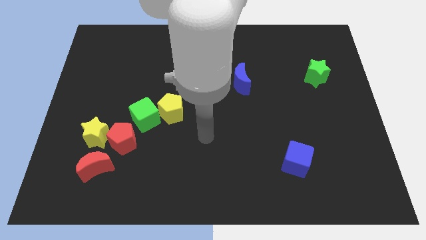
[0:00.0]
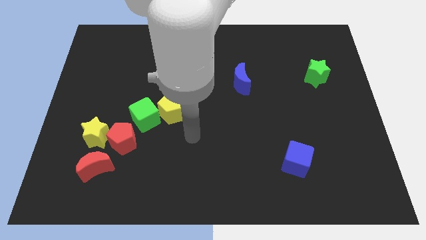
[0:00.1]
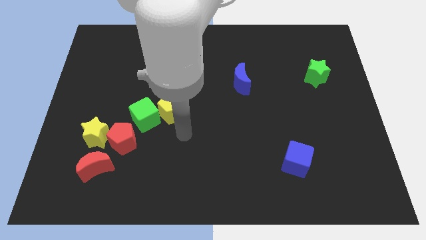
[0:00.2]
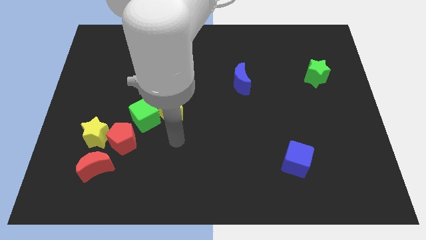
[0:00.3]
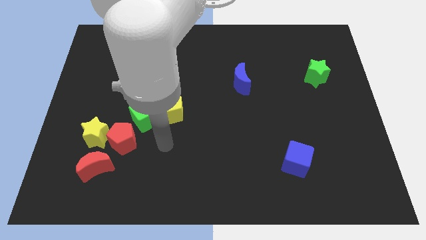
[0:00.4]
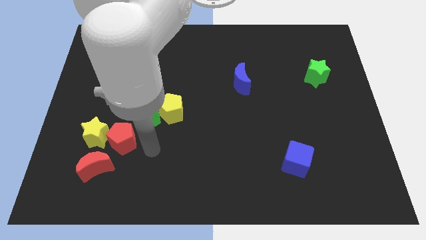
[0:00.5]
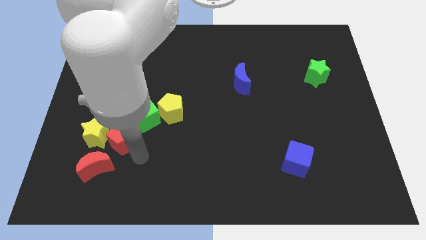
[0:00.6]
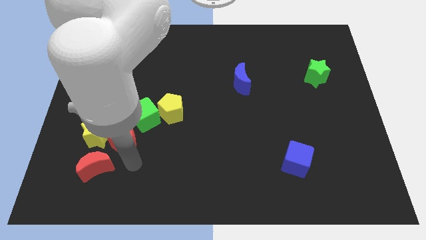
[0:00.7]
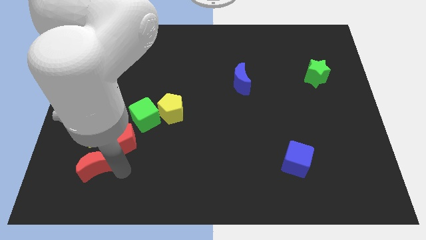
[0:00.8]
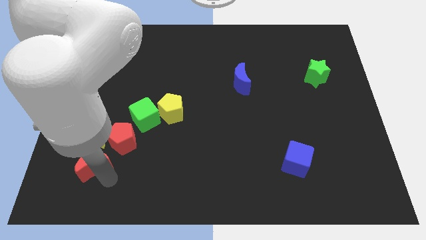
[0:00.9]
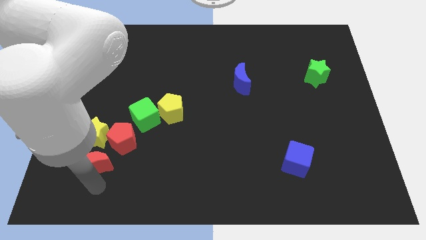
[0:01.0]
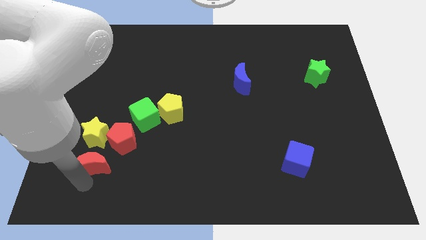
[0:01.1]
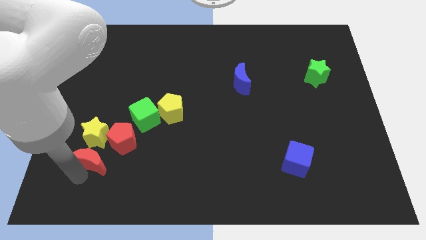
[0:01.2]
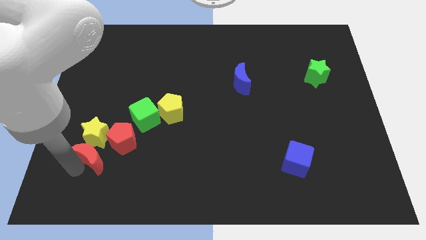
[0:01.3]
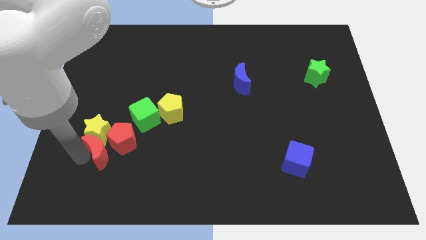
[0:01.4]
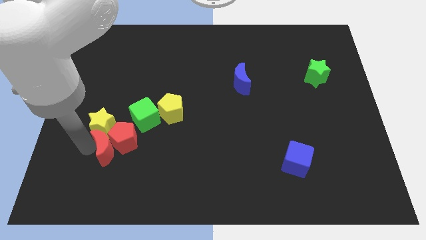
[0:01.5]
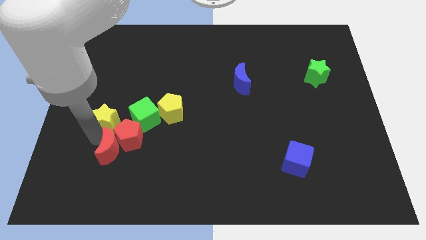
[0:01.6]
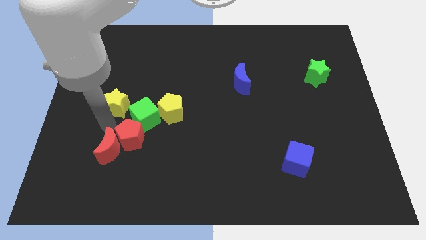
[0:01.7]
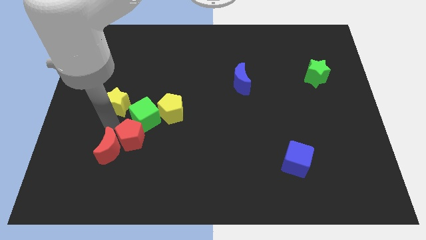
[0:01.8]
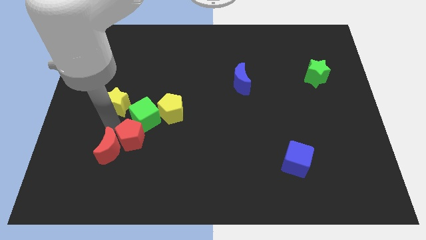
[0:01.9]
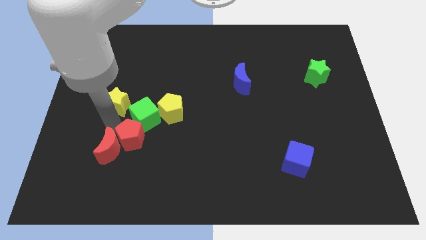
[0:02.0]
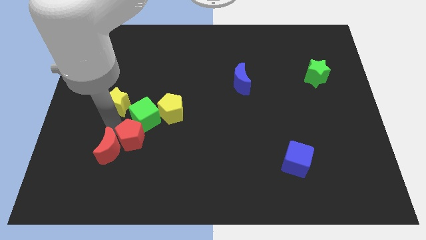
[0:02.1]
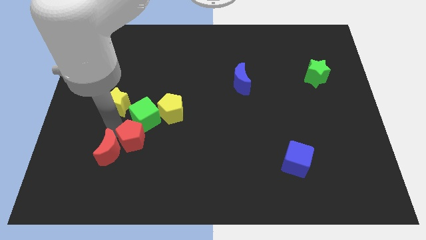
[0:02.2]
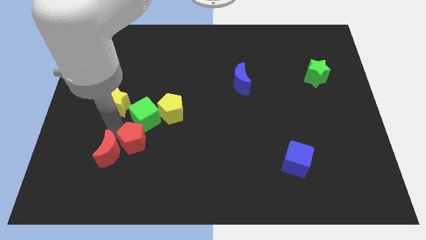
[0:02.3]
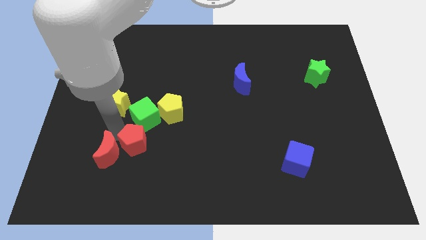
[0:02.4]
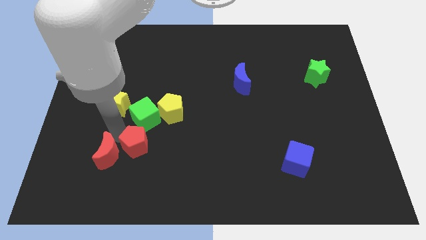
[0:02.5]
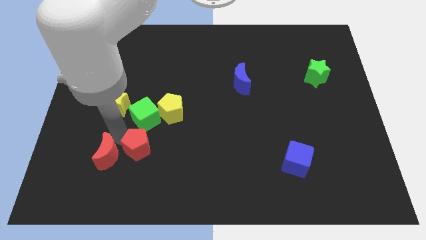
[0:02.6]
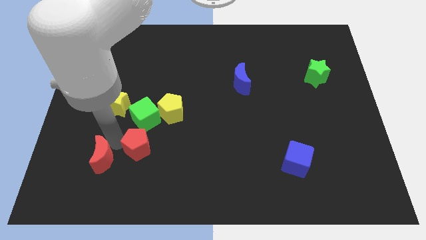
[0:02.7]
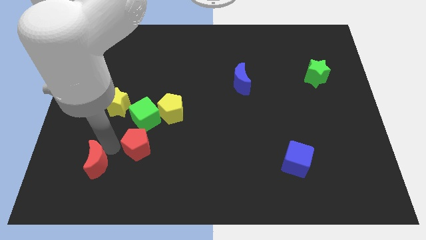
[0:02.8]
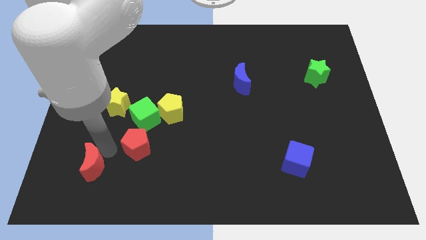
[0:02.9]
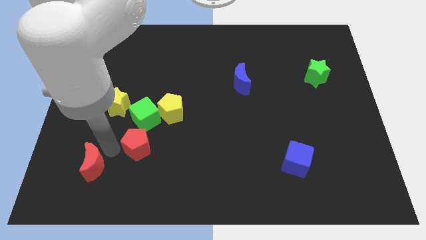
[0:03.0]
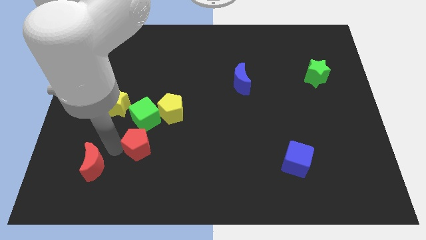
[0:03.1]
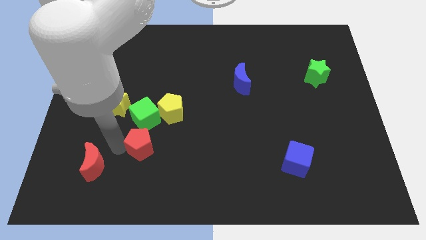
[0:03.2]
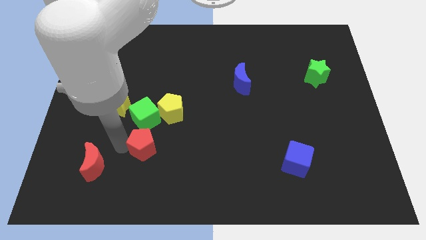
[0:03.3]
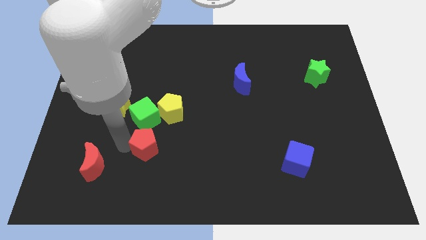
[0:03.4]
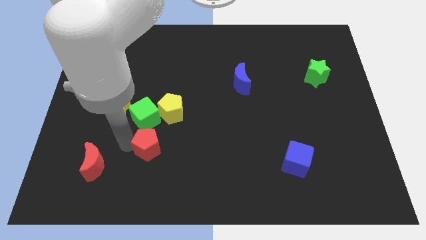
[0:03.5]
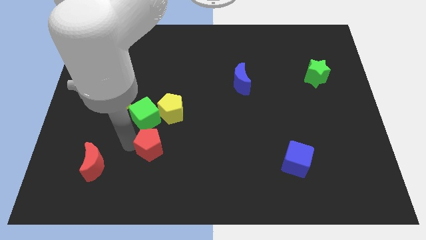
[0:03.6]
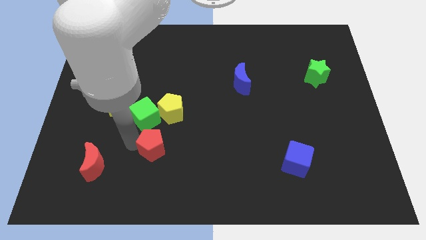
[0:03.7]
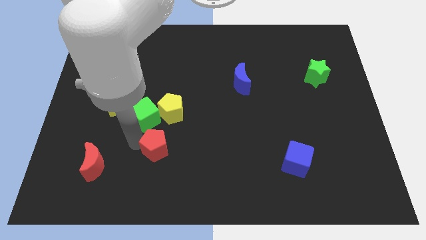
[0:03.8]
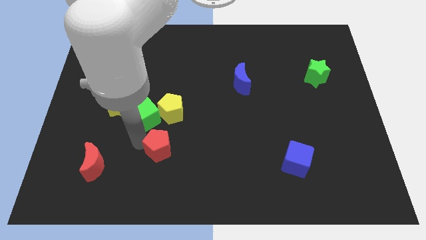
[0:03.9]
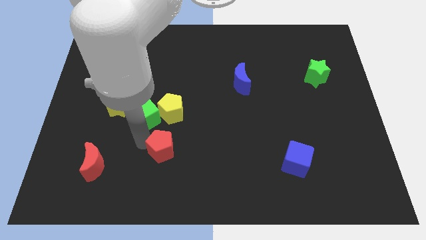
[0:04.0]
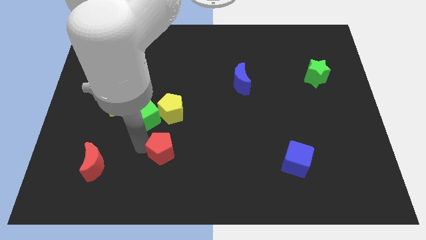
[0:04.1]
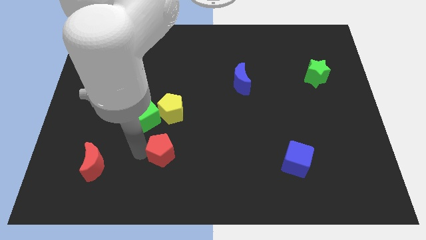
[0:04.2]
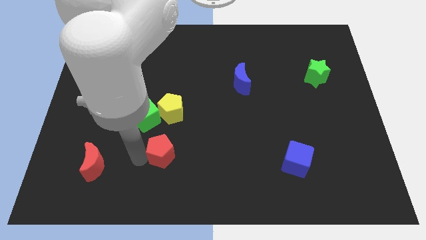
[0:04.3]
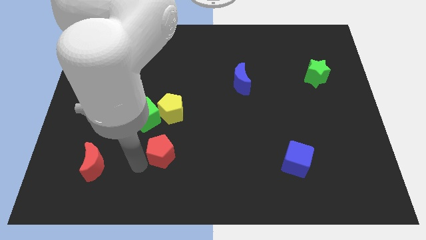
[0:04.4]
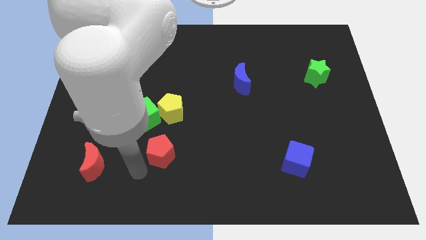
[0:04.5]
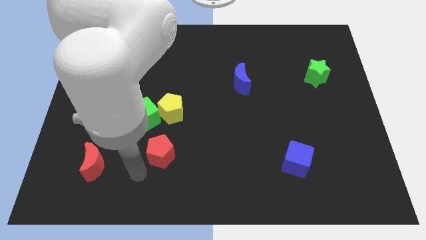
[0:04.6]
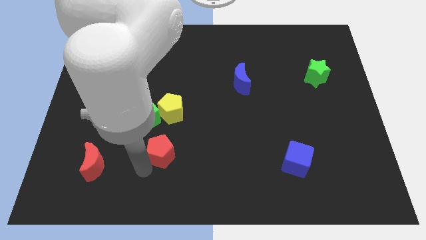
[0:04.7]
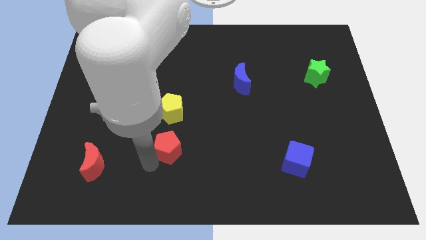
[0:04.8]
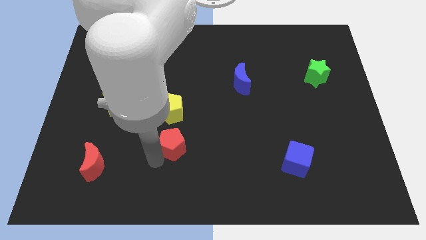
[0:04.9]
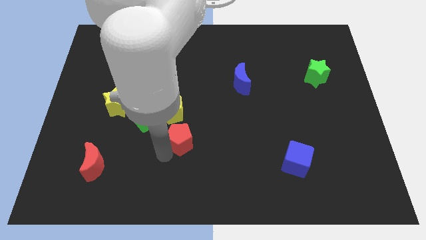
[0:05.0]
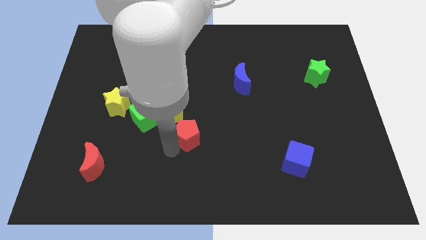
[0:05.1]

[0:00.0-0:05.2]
push the red pentagon to the middle

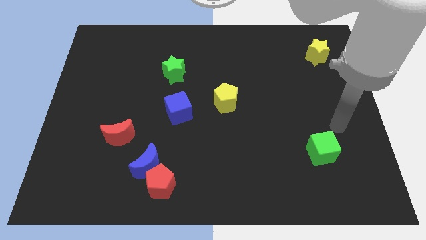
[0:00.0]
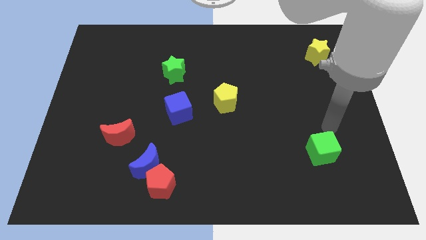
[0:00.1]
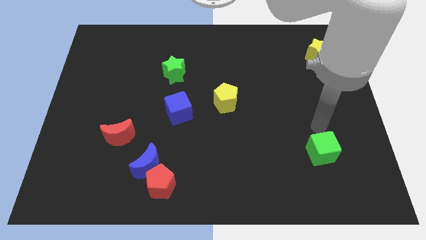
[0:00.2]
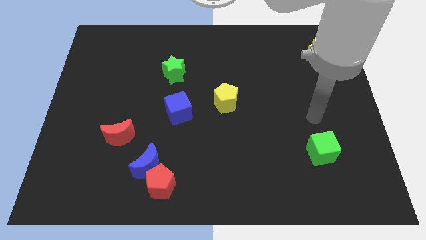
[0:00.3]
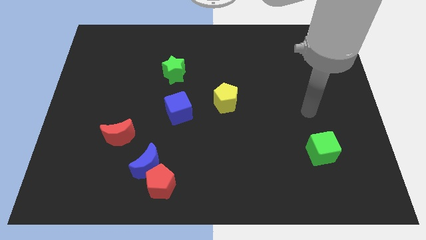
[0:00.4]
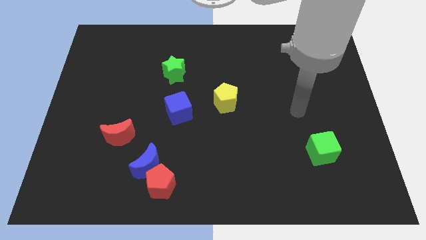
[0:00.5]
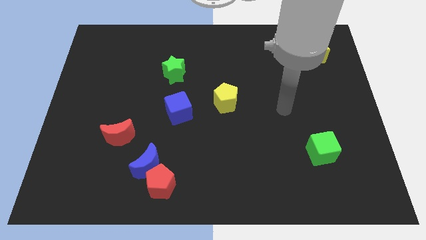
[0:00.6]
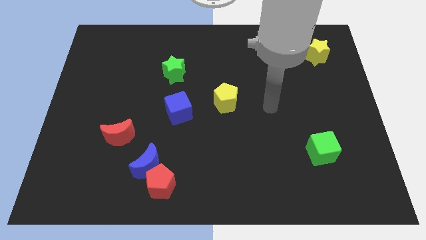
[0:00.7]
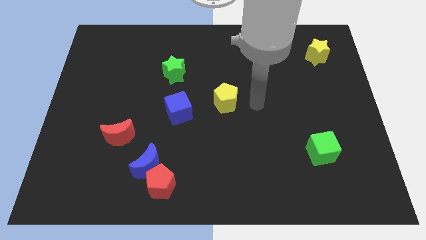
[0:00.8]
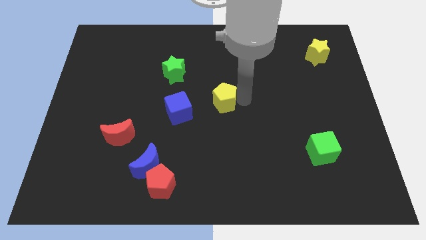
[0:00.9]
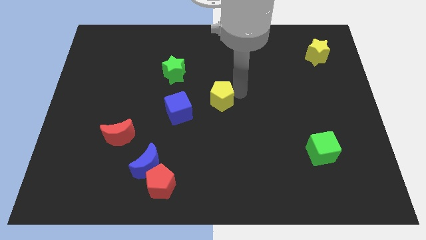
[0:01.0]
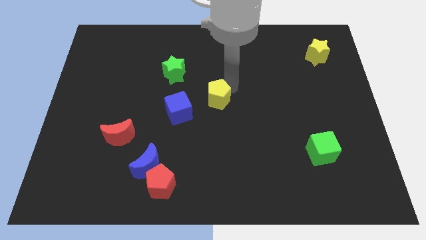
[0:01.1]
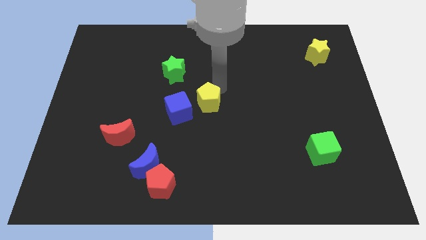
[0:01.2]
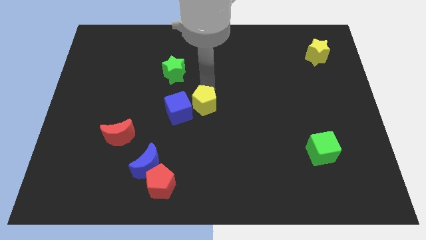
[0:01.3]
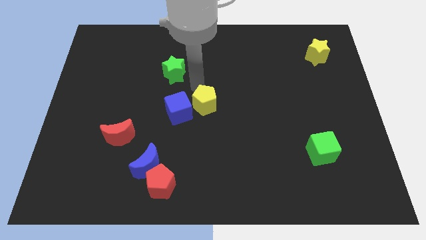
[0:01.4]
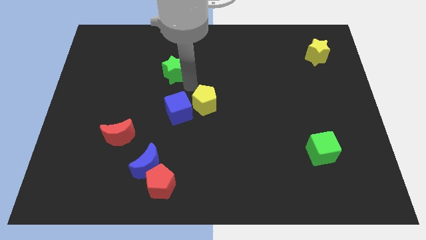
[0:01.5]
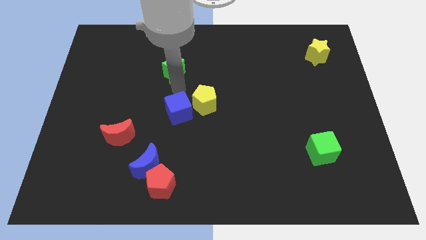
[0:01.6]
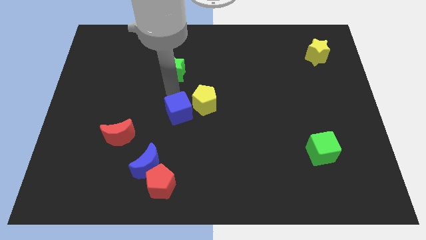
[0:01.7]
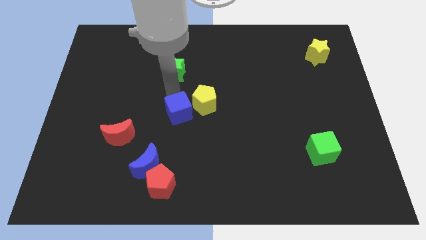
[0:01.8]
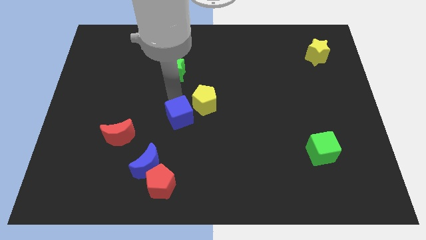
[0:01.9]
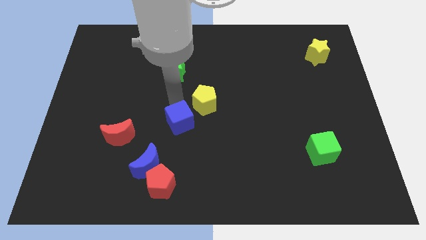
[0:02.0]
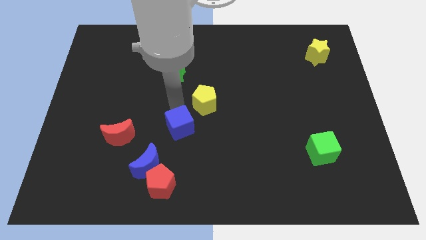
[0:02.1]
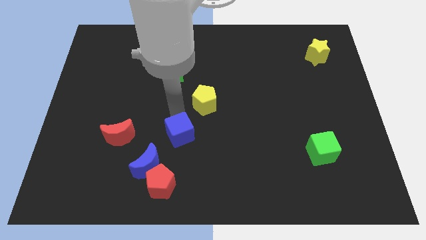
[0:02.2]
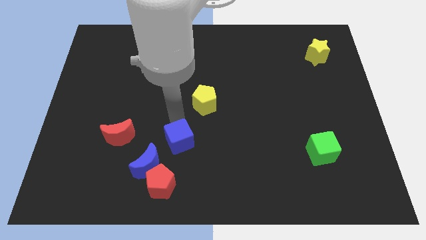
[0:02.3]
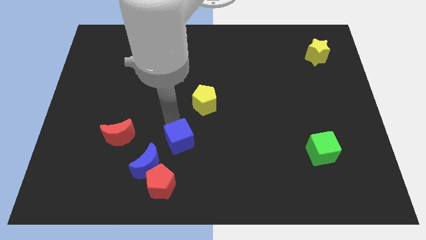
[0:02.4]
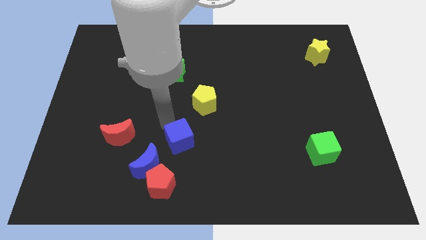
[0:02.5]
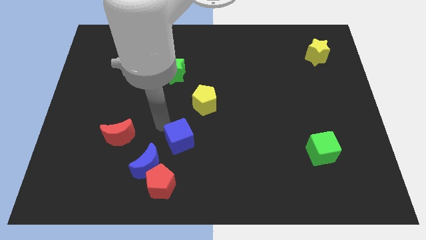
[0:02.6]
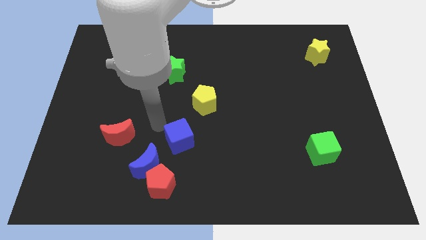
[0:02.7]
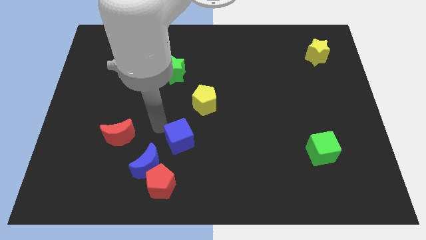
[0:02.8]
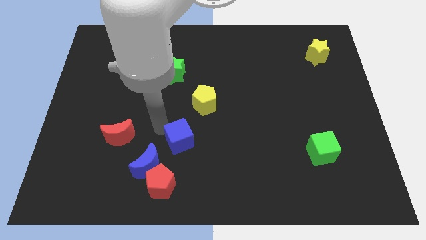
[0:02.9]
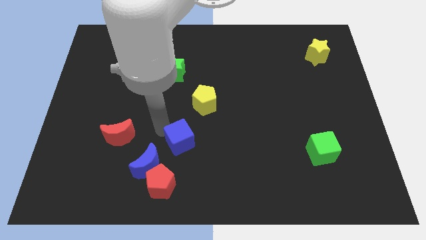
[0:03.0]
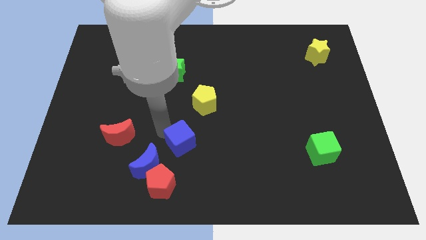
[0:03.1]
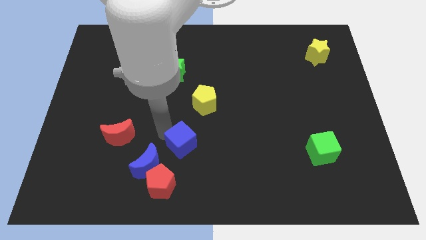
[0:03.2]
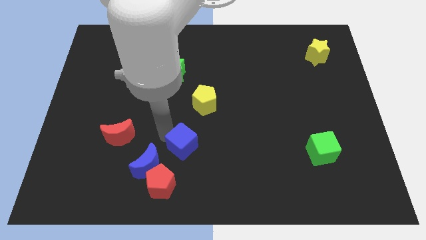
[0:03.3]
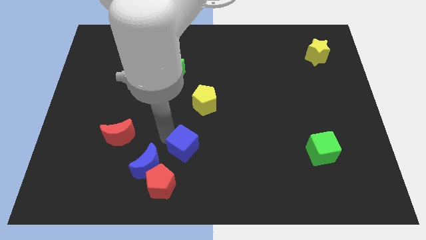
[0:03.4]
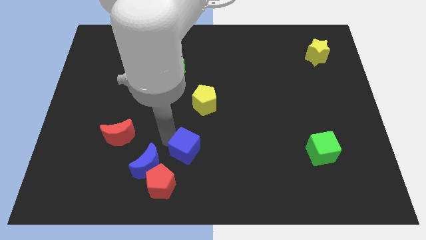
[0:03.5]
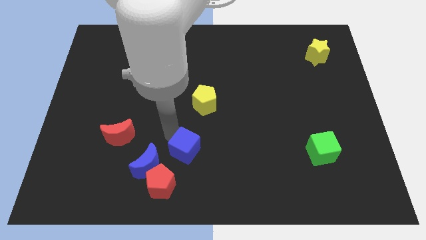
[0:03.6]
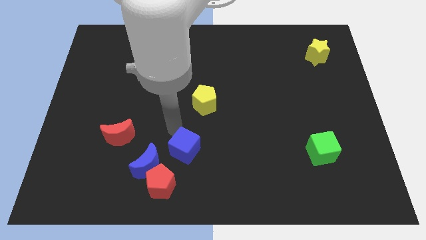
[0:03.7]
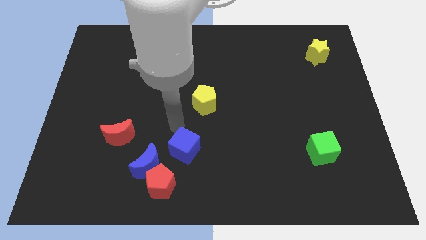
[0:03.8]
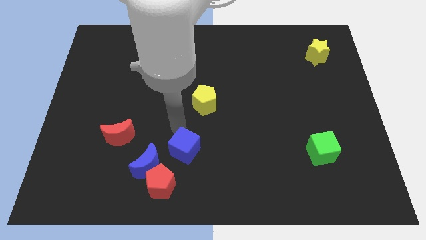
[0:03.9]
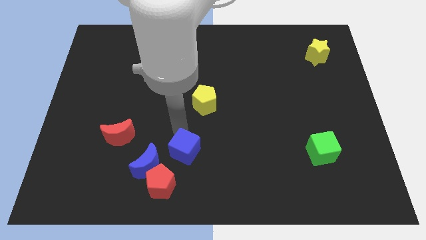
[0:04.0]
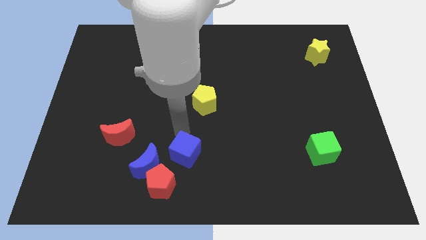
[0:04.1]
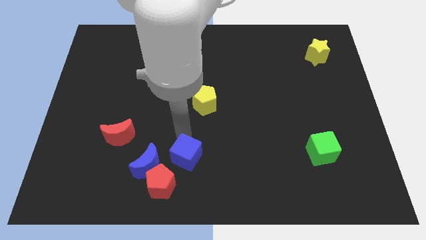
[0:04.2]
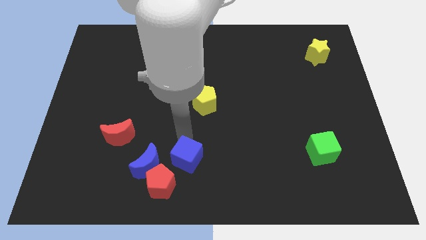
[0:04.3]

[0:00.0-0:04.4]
move the blue cube to the bottom
